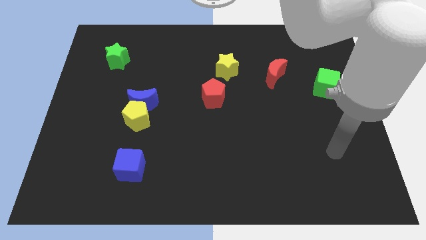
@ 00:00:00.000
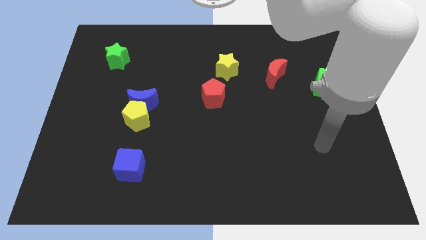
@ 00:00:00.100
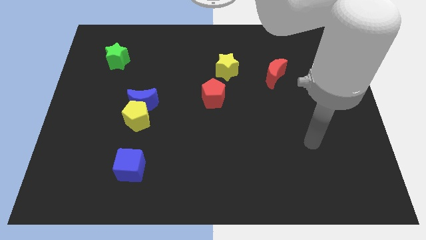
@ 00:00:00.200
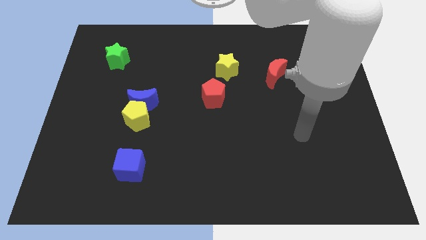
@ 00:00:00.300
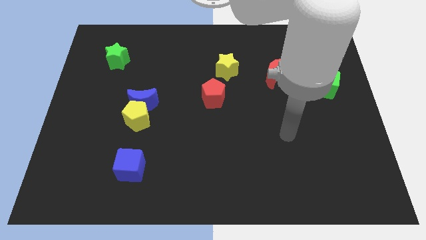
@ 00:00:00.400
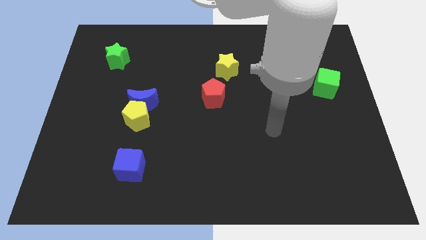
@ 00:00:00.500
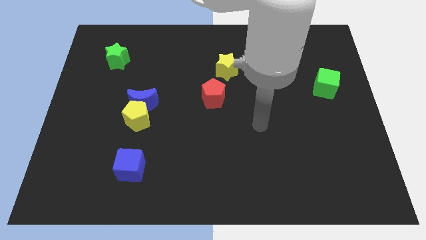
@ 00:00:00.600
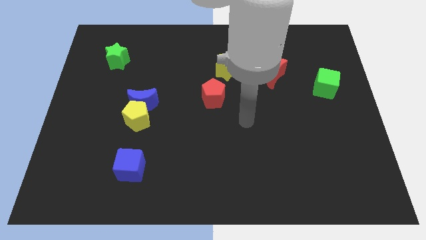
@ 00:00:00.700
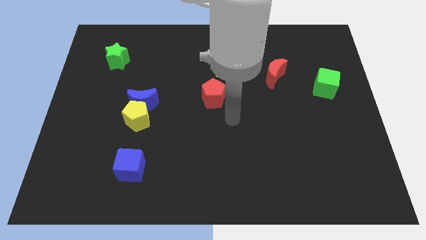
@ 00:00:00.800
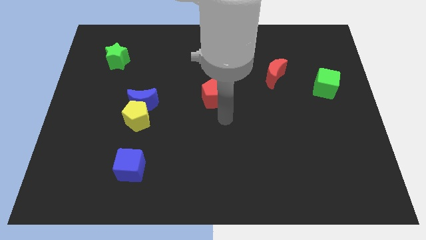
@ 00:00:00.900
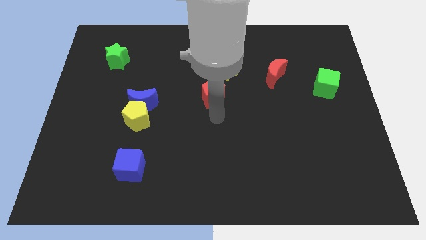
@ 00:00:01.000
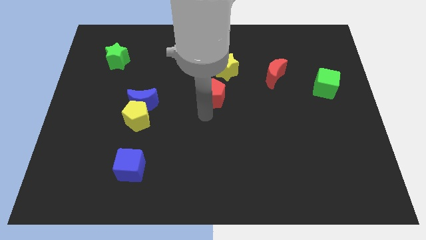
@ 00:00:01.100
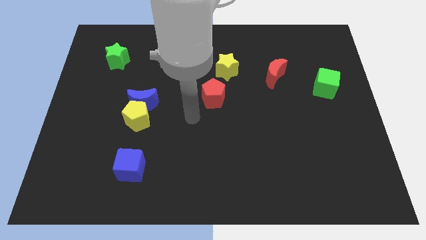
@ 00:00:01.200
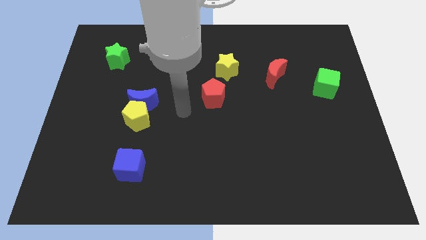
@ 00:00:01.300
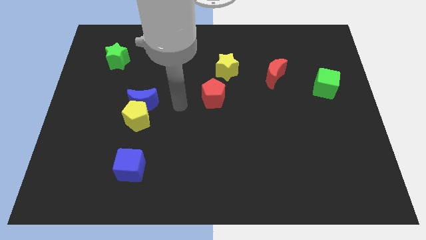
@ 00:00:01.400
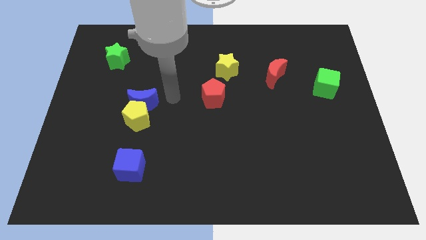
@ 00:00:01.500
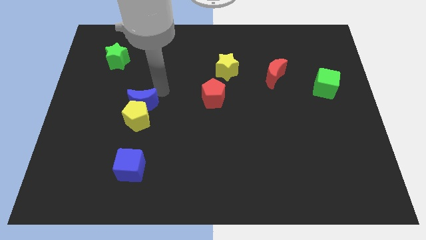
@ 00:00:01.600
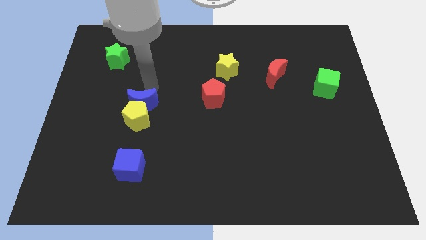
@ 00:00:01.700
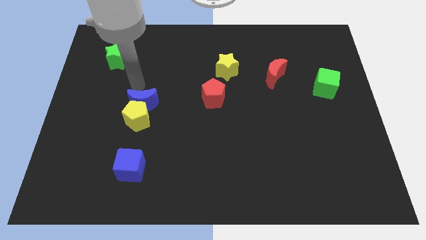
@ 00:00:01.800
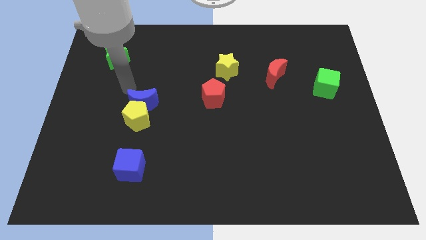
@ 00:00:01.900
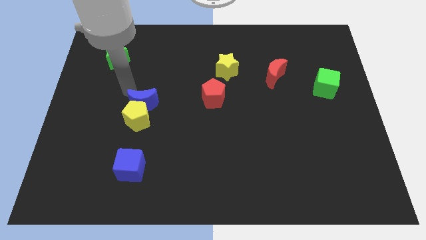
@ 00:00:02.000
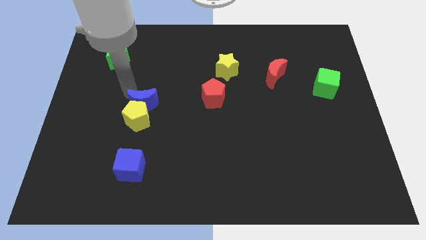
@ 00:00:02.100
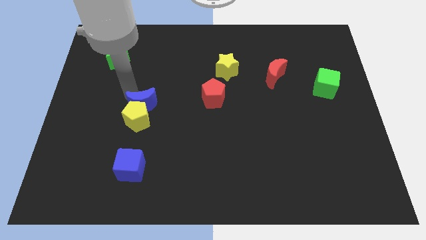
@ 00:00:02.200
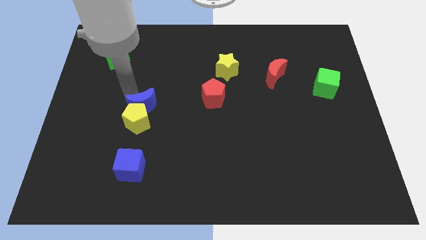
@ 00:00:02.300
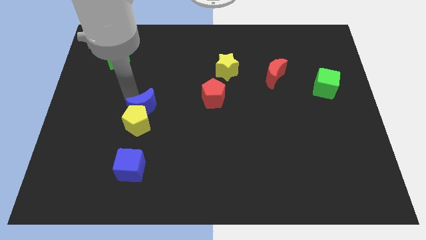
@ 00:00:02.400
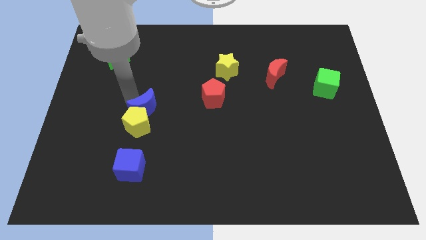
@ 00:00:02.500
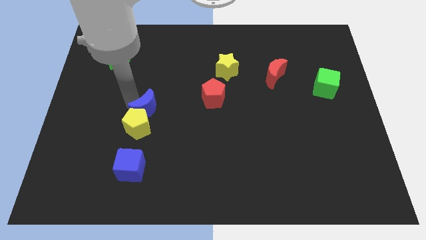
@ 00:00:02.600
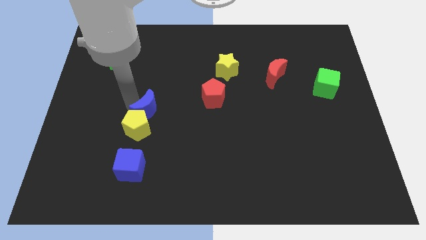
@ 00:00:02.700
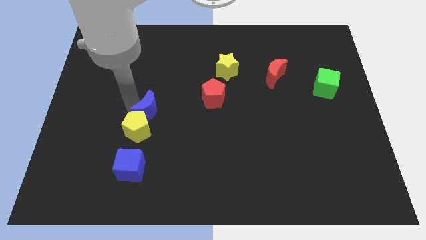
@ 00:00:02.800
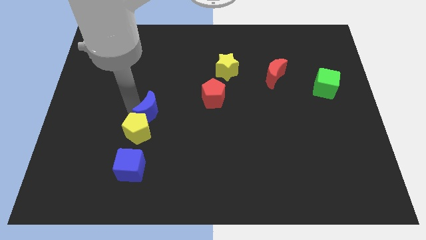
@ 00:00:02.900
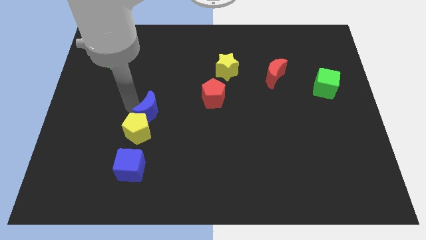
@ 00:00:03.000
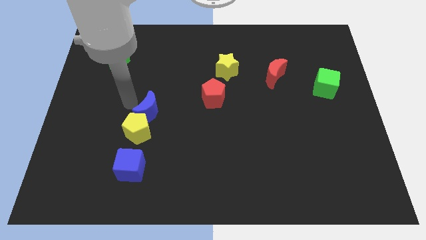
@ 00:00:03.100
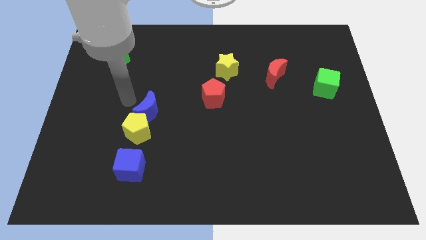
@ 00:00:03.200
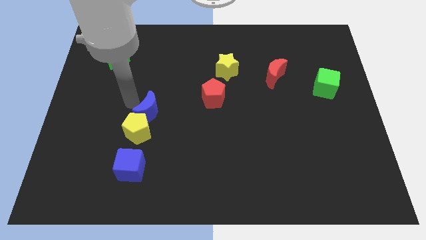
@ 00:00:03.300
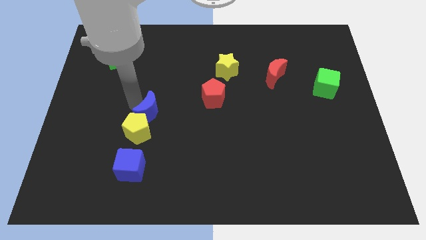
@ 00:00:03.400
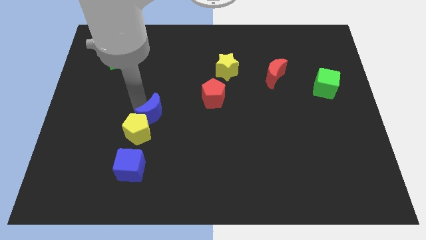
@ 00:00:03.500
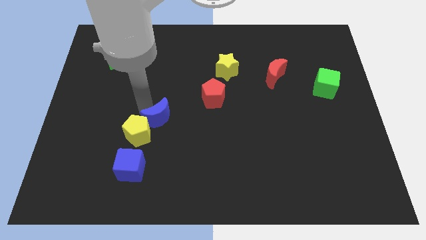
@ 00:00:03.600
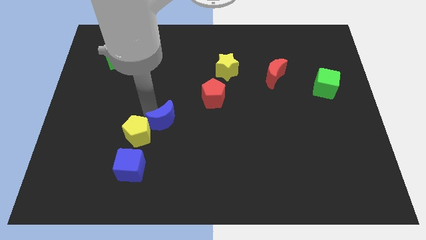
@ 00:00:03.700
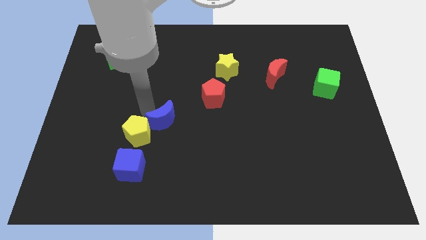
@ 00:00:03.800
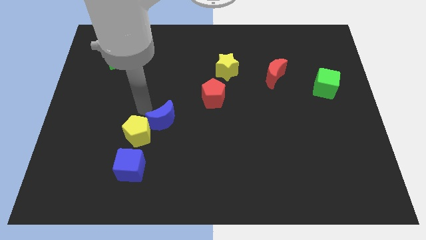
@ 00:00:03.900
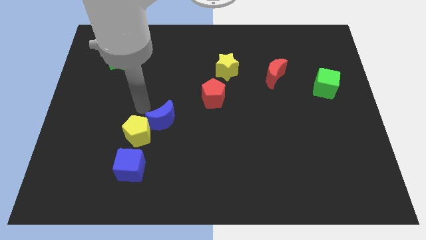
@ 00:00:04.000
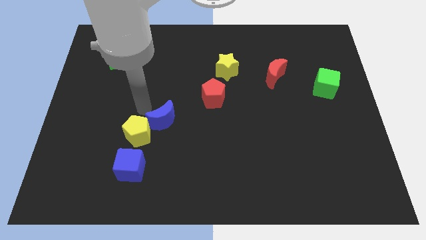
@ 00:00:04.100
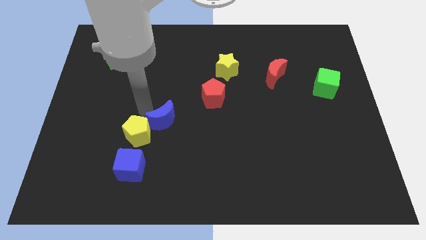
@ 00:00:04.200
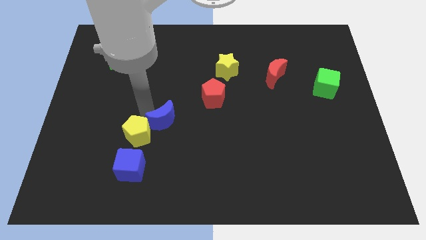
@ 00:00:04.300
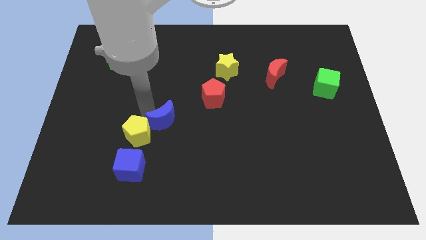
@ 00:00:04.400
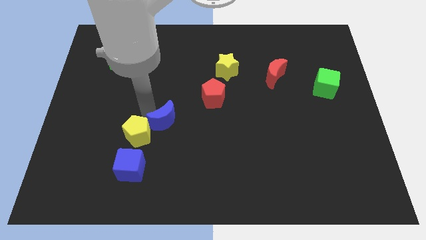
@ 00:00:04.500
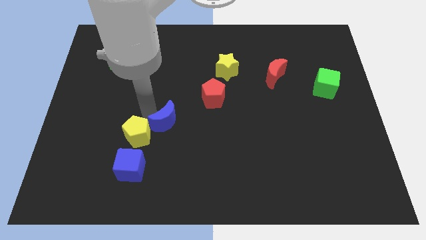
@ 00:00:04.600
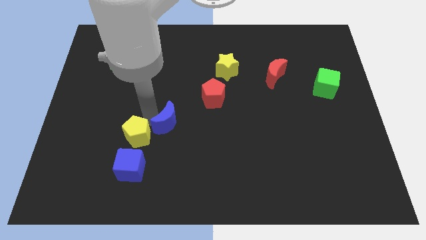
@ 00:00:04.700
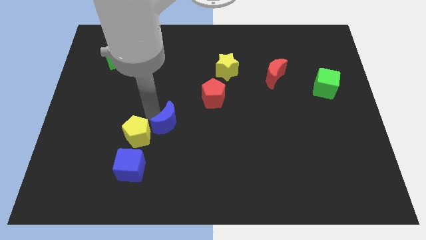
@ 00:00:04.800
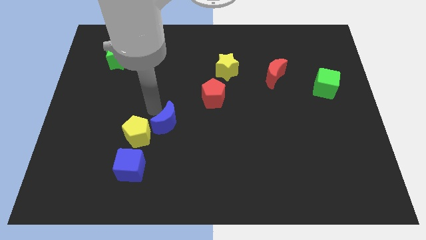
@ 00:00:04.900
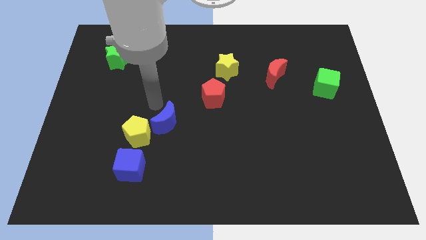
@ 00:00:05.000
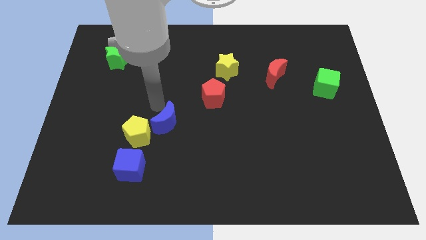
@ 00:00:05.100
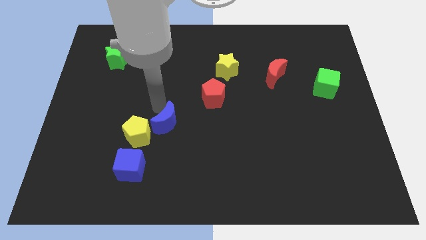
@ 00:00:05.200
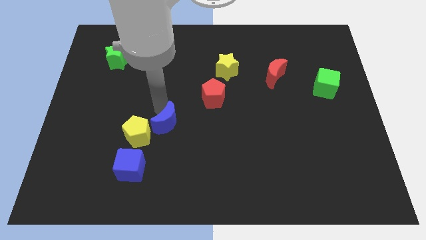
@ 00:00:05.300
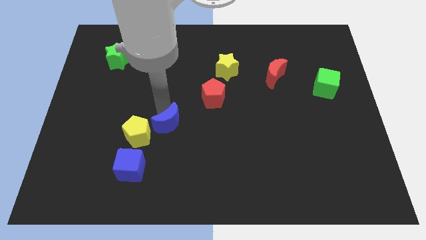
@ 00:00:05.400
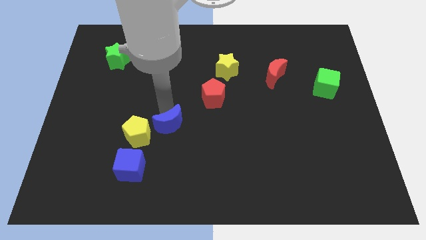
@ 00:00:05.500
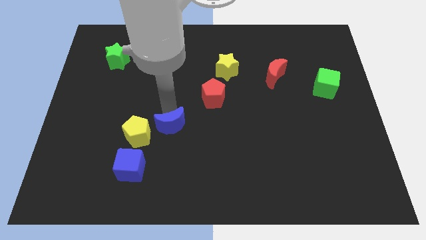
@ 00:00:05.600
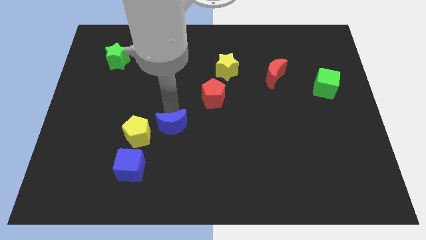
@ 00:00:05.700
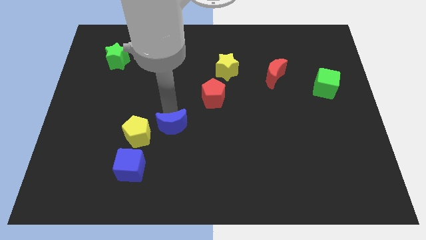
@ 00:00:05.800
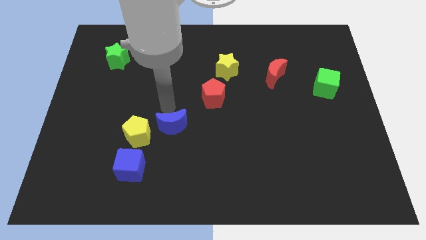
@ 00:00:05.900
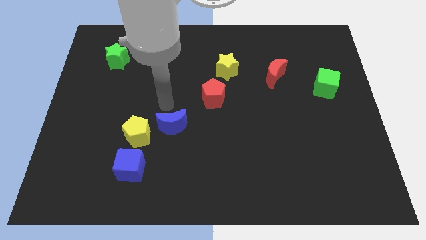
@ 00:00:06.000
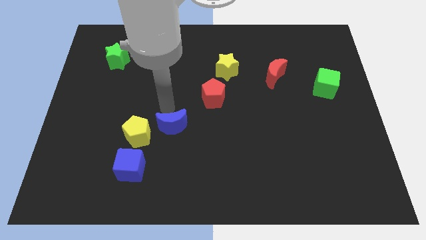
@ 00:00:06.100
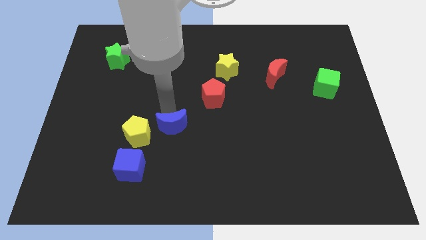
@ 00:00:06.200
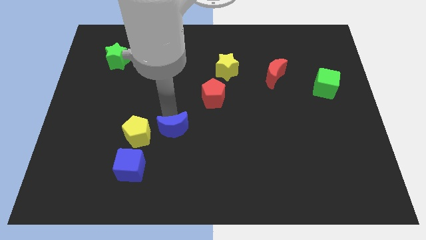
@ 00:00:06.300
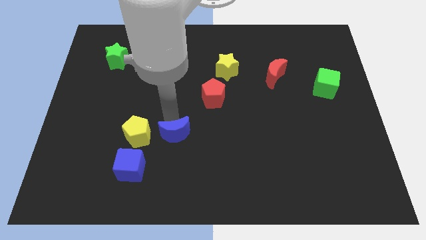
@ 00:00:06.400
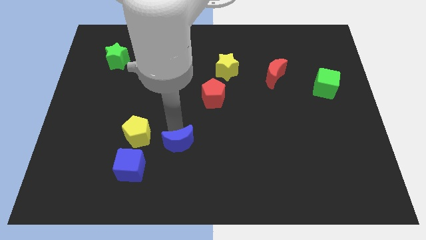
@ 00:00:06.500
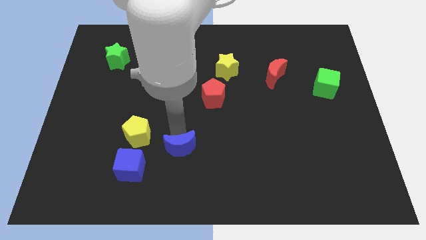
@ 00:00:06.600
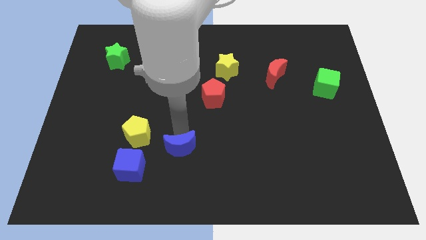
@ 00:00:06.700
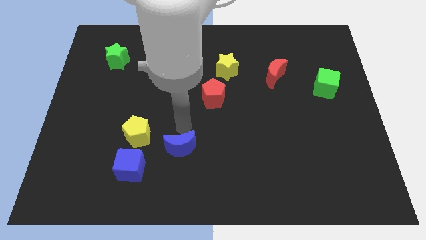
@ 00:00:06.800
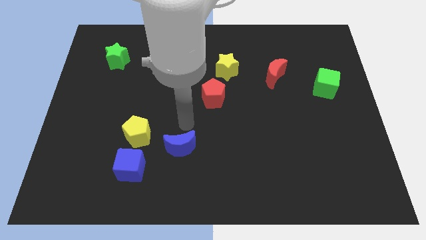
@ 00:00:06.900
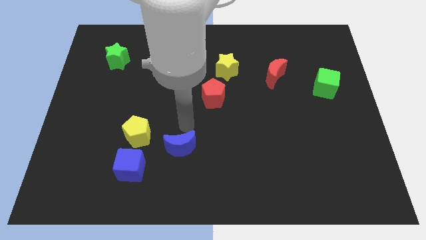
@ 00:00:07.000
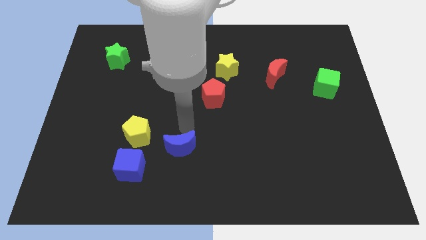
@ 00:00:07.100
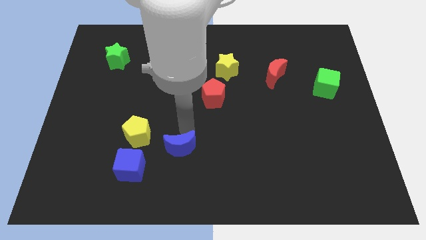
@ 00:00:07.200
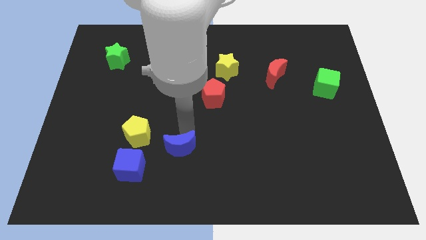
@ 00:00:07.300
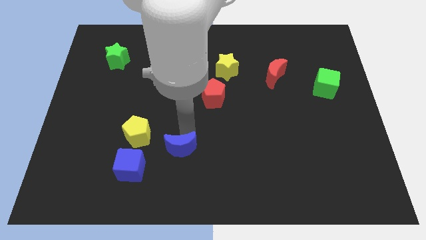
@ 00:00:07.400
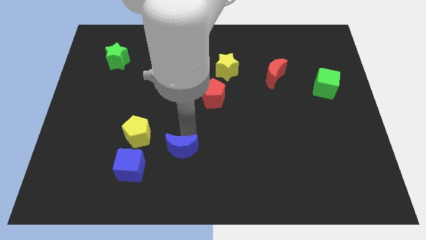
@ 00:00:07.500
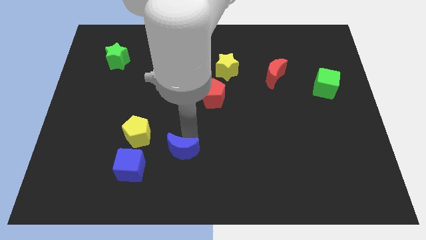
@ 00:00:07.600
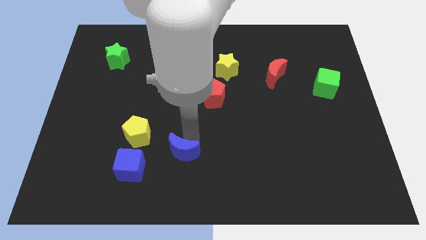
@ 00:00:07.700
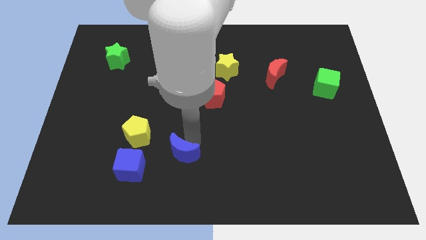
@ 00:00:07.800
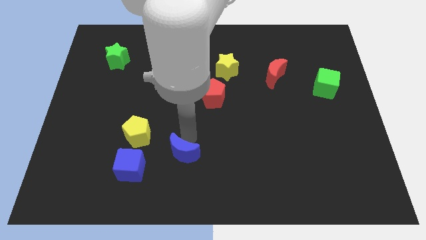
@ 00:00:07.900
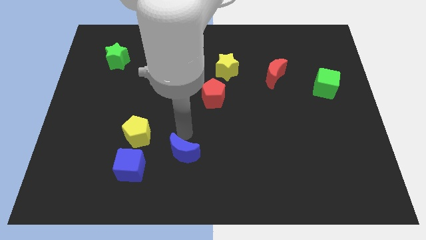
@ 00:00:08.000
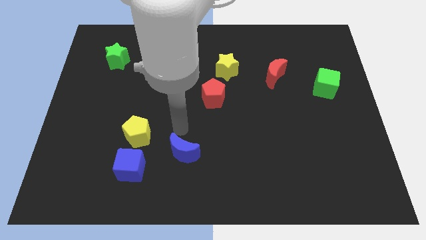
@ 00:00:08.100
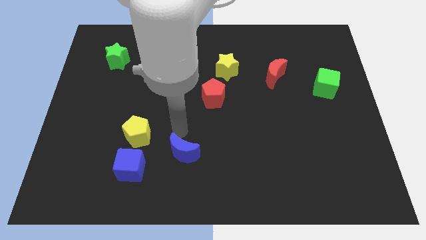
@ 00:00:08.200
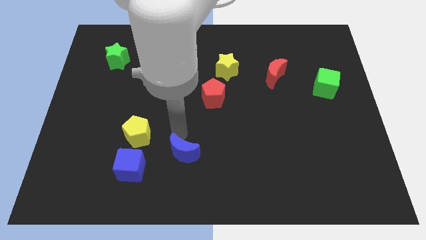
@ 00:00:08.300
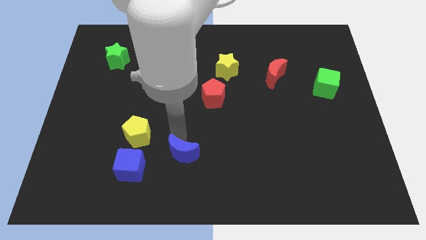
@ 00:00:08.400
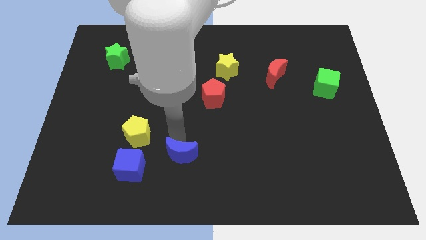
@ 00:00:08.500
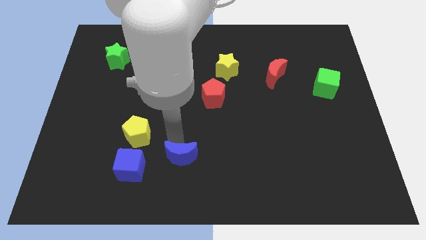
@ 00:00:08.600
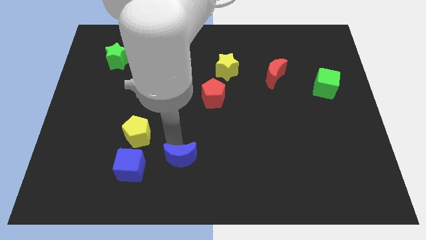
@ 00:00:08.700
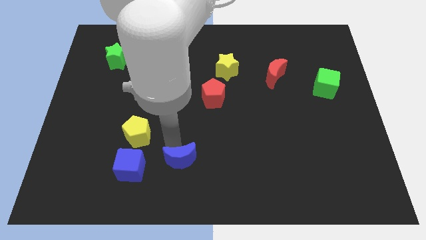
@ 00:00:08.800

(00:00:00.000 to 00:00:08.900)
put the blue moon to the bottom
